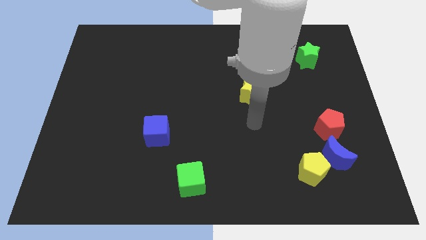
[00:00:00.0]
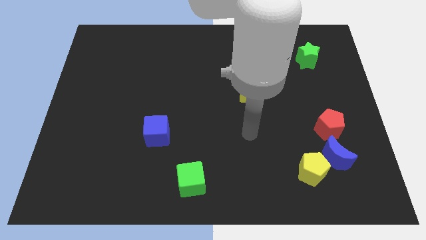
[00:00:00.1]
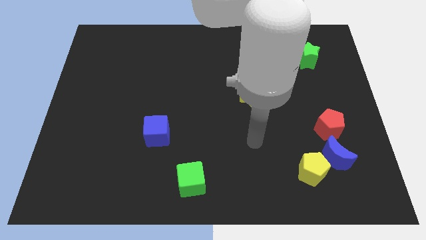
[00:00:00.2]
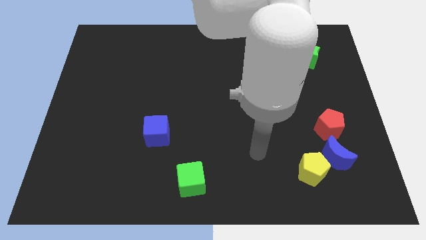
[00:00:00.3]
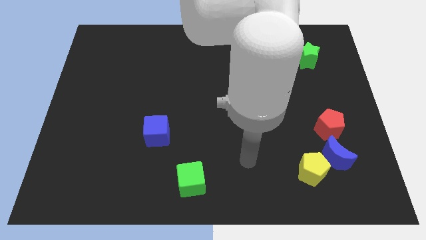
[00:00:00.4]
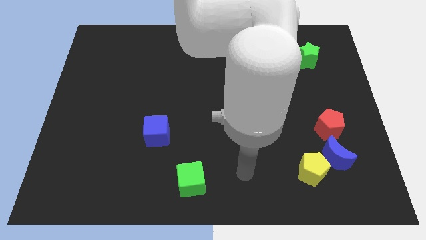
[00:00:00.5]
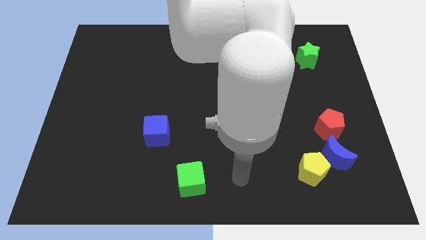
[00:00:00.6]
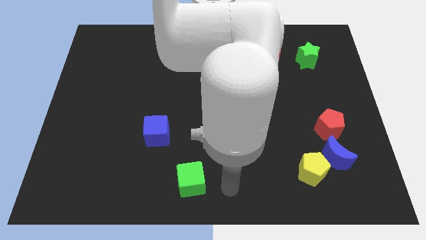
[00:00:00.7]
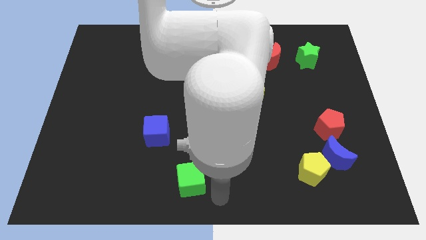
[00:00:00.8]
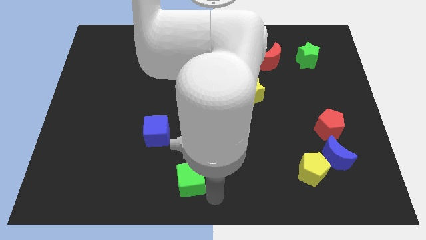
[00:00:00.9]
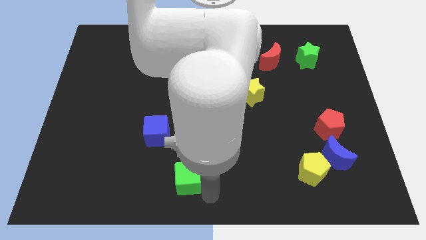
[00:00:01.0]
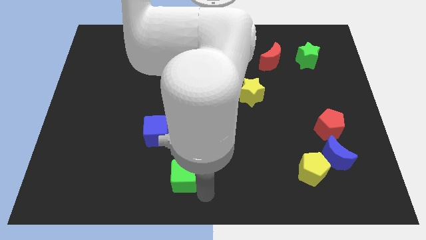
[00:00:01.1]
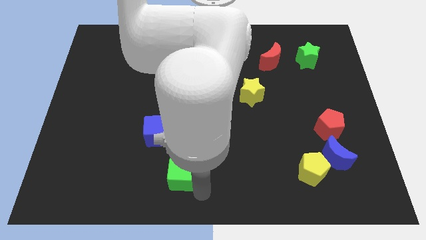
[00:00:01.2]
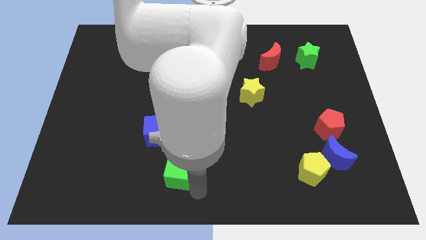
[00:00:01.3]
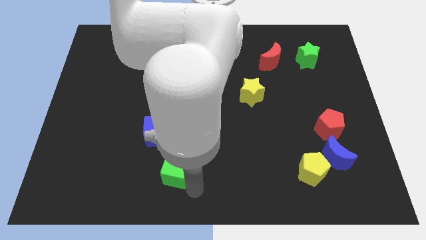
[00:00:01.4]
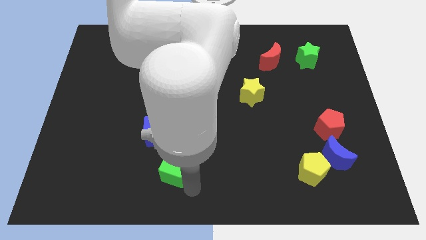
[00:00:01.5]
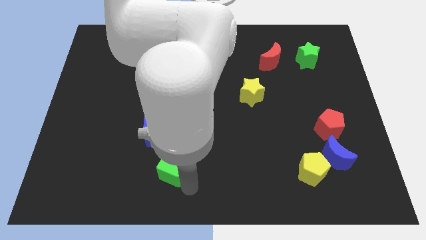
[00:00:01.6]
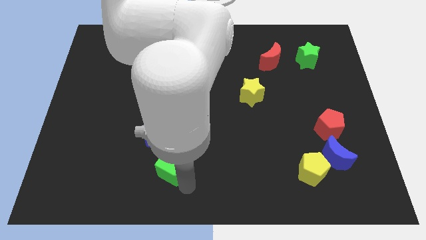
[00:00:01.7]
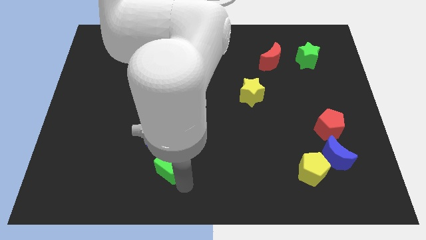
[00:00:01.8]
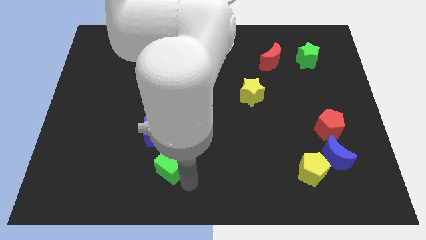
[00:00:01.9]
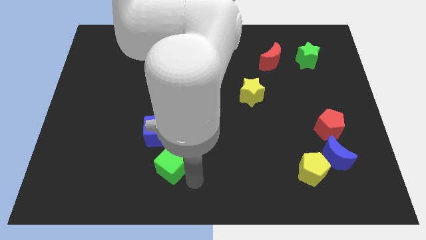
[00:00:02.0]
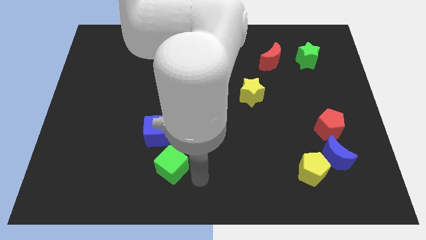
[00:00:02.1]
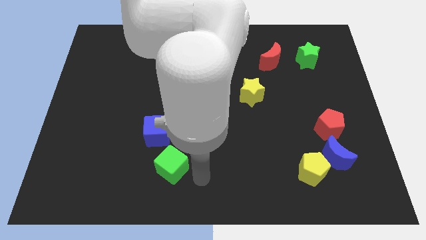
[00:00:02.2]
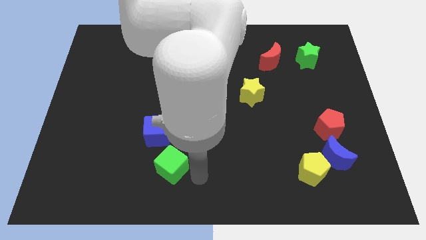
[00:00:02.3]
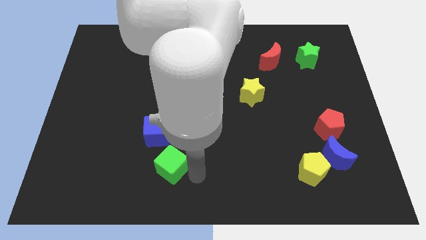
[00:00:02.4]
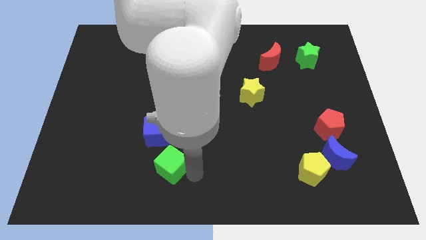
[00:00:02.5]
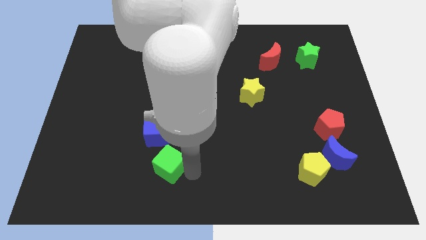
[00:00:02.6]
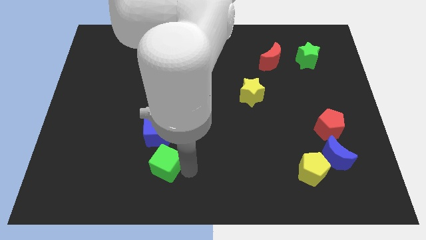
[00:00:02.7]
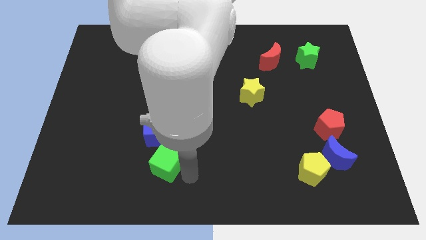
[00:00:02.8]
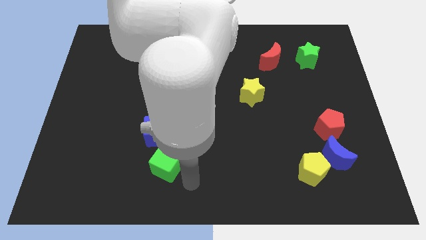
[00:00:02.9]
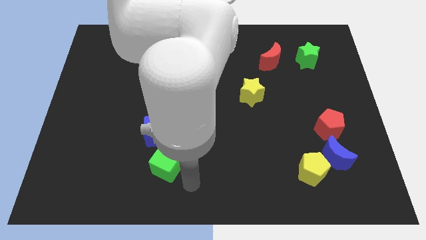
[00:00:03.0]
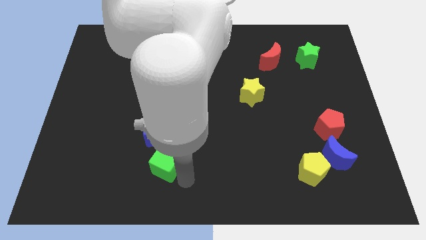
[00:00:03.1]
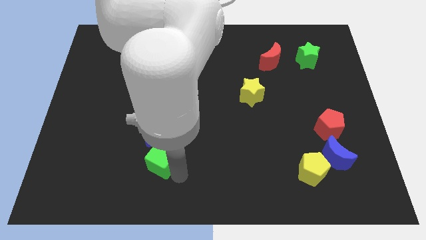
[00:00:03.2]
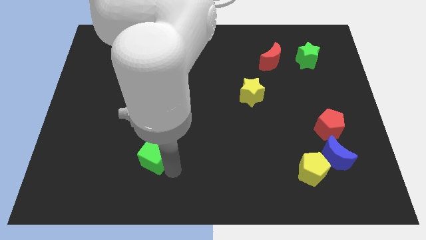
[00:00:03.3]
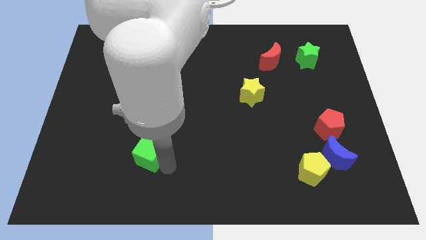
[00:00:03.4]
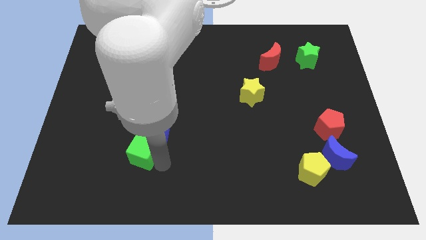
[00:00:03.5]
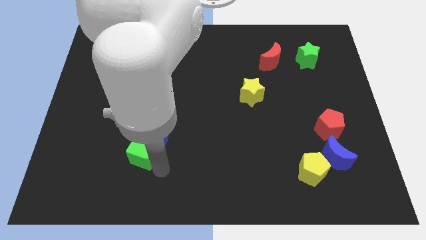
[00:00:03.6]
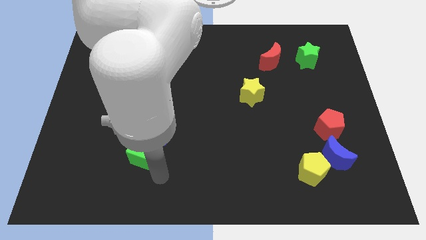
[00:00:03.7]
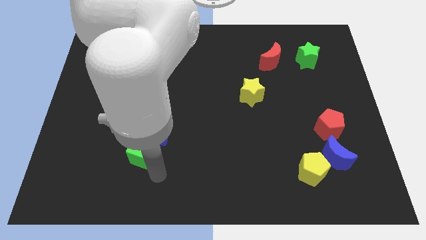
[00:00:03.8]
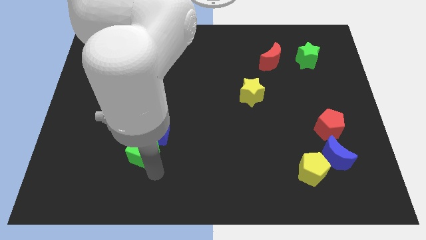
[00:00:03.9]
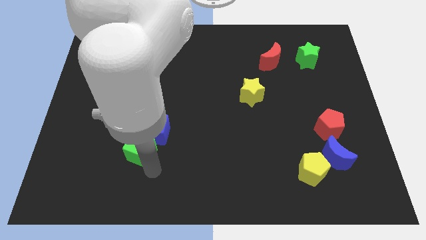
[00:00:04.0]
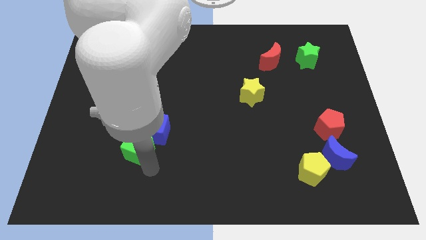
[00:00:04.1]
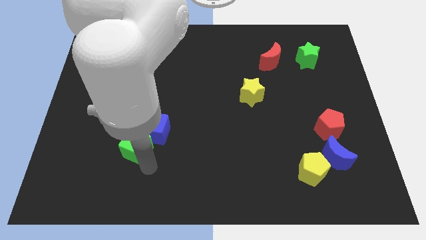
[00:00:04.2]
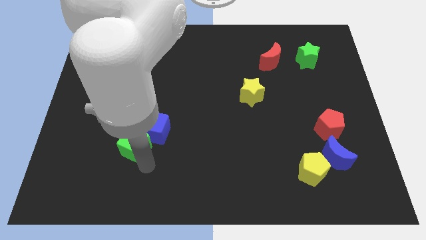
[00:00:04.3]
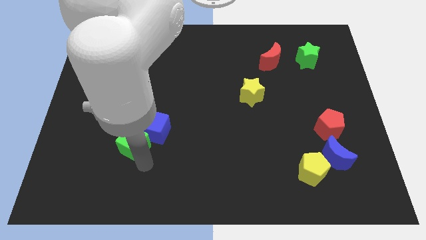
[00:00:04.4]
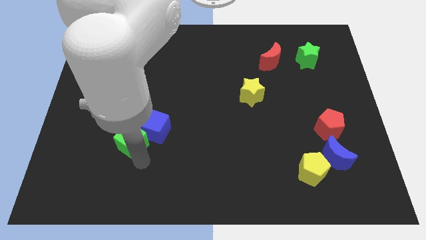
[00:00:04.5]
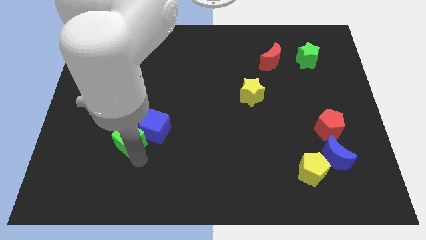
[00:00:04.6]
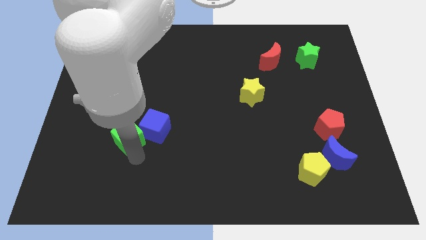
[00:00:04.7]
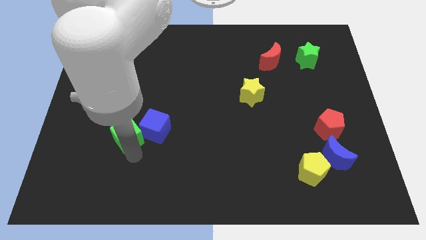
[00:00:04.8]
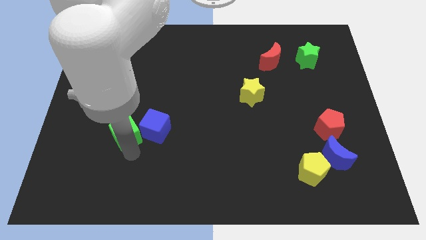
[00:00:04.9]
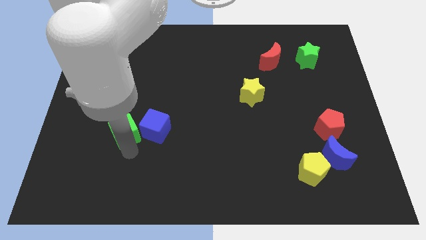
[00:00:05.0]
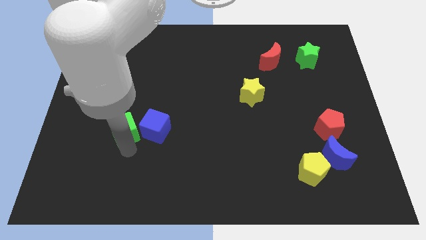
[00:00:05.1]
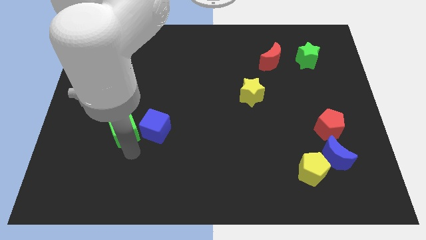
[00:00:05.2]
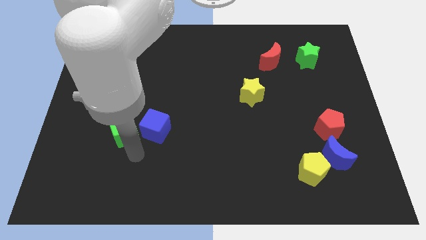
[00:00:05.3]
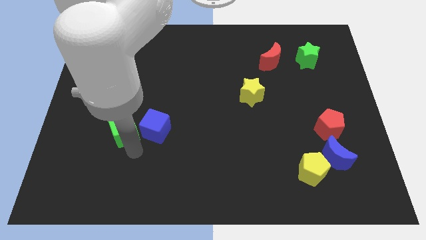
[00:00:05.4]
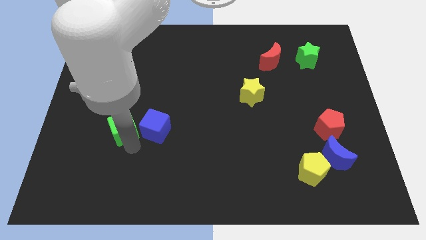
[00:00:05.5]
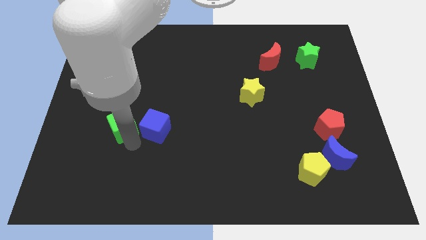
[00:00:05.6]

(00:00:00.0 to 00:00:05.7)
move the green cube upwards and left diagonally

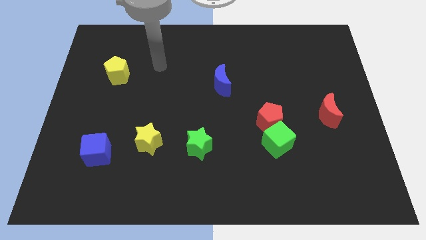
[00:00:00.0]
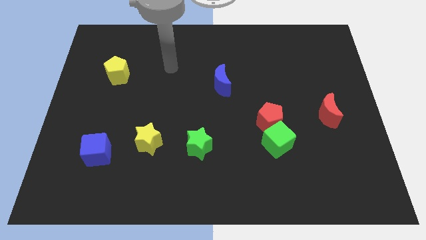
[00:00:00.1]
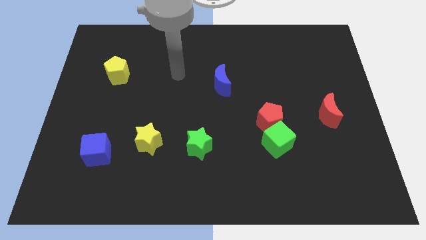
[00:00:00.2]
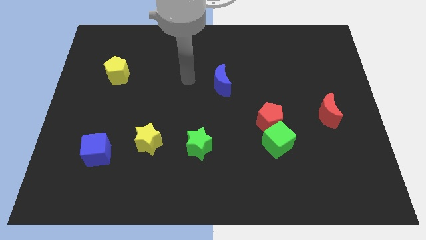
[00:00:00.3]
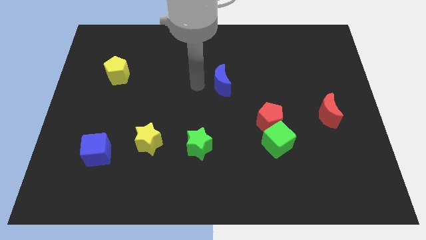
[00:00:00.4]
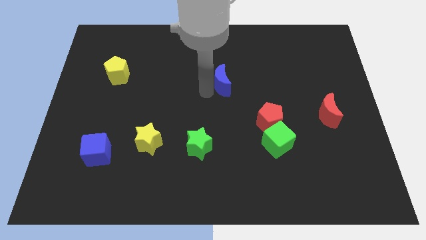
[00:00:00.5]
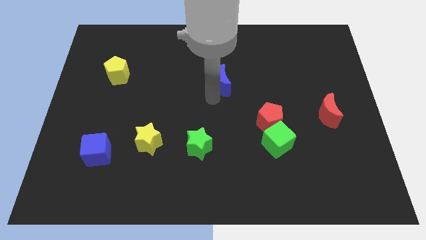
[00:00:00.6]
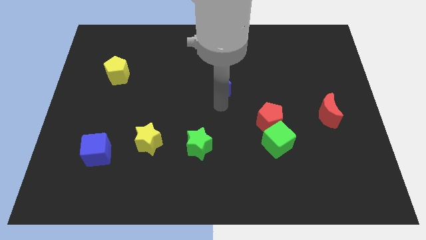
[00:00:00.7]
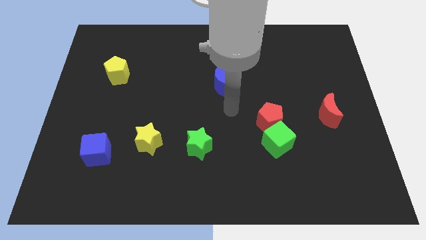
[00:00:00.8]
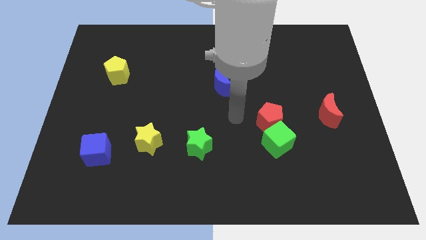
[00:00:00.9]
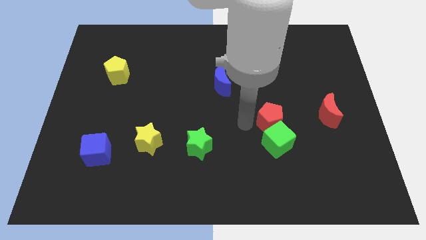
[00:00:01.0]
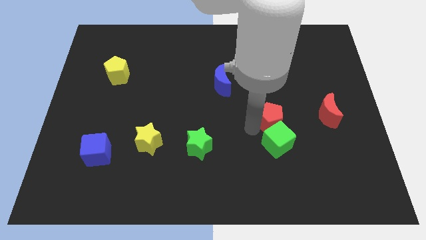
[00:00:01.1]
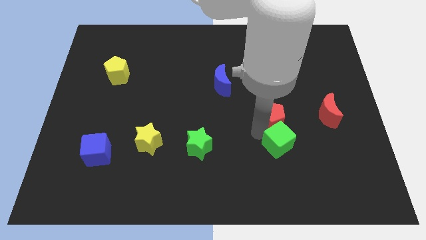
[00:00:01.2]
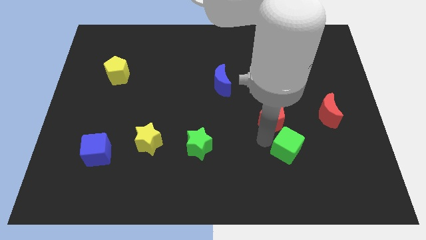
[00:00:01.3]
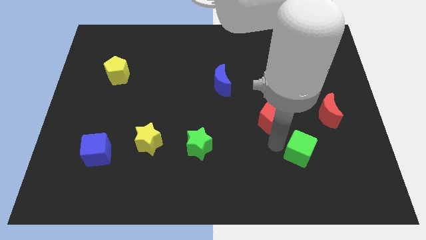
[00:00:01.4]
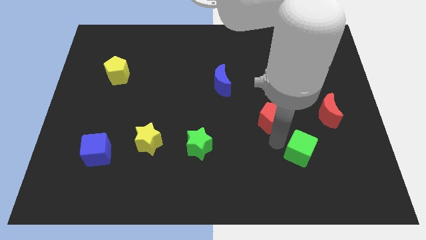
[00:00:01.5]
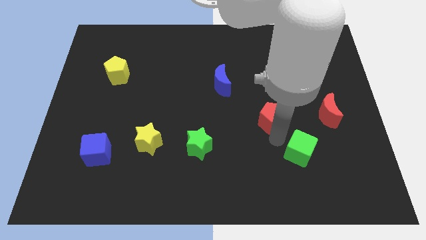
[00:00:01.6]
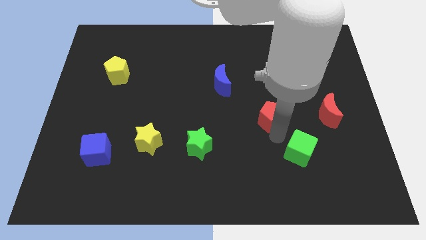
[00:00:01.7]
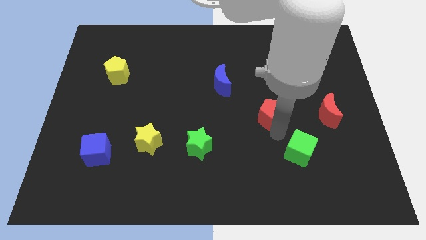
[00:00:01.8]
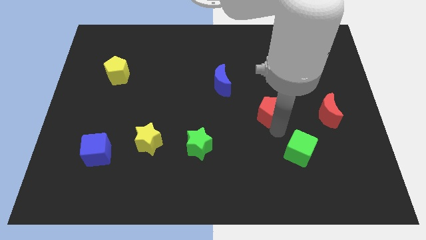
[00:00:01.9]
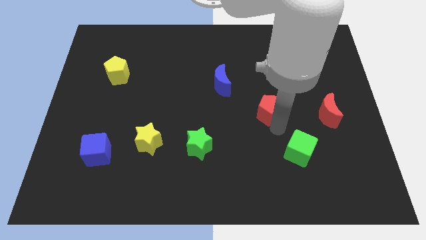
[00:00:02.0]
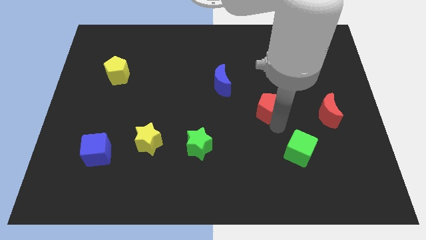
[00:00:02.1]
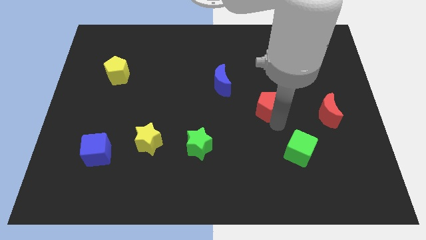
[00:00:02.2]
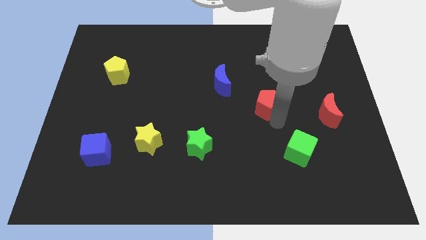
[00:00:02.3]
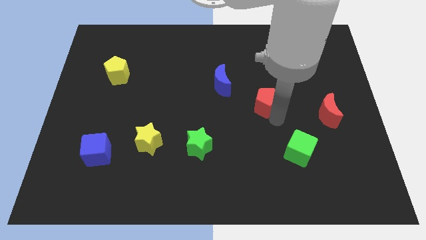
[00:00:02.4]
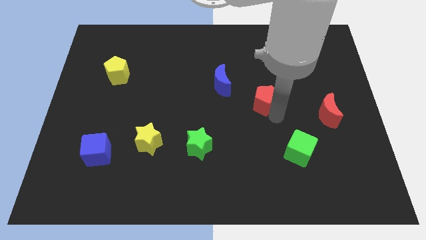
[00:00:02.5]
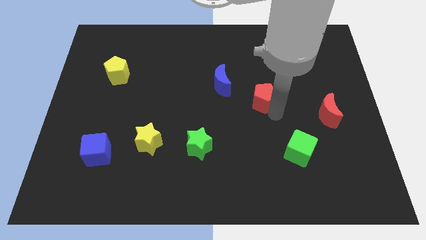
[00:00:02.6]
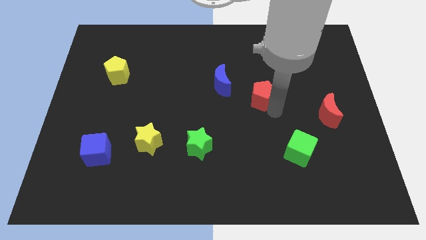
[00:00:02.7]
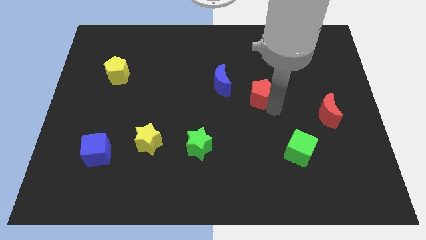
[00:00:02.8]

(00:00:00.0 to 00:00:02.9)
slightly push the red pentagon up
